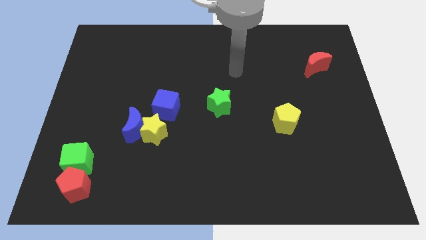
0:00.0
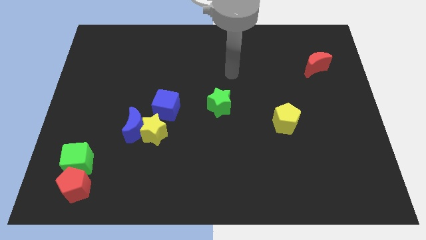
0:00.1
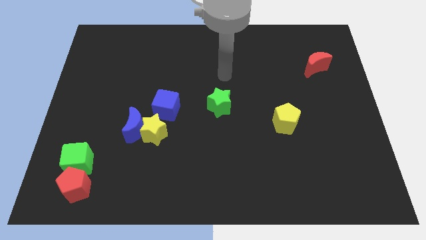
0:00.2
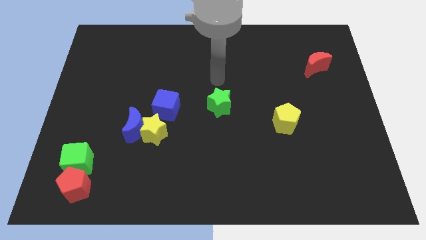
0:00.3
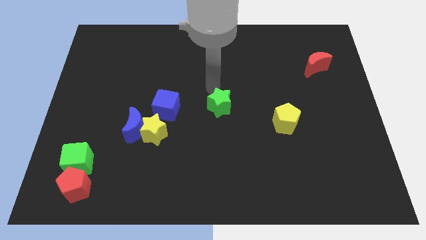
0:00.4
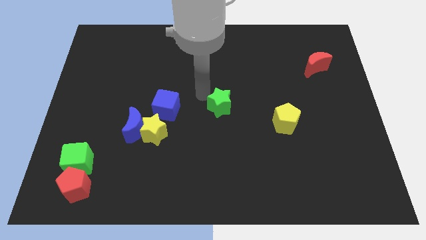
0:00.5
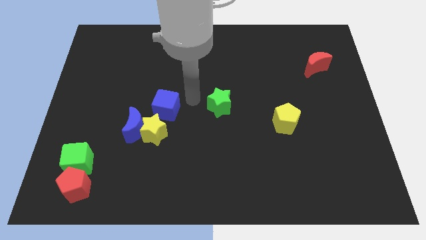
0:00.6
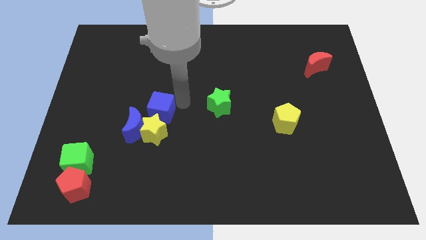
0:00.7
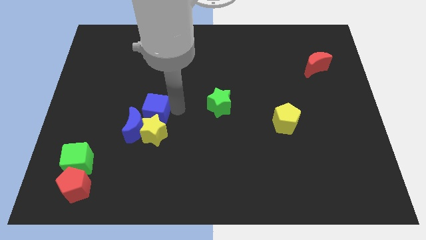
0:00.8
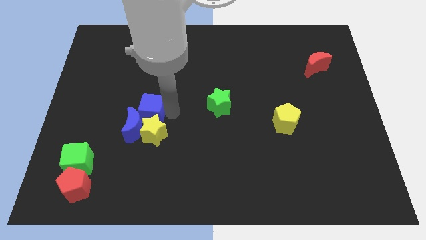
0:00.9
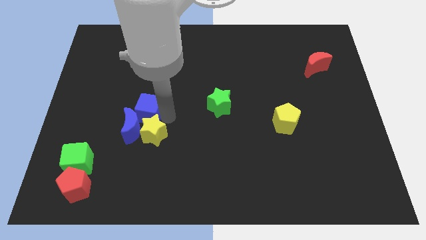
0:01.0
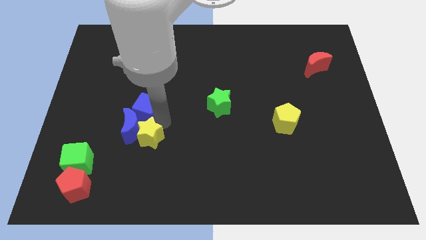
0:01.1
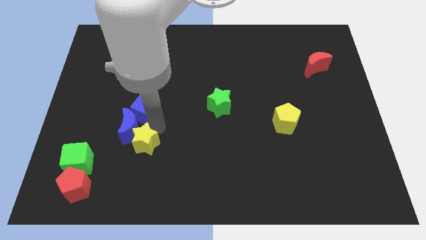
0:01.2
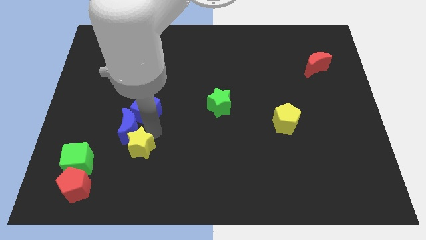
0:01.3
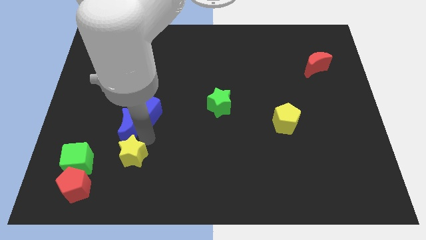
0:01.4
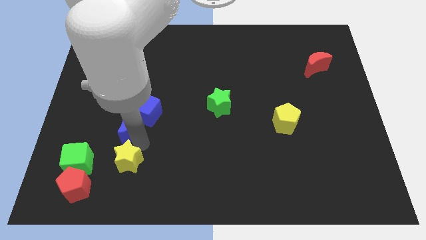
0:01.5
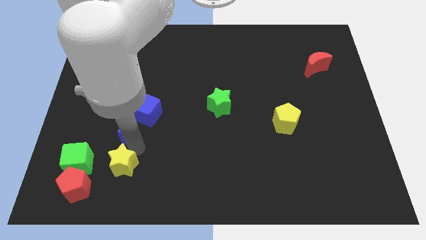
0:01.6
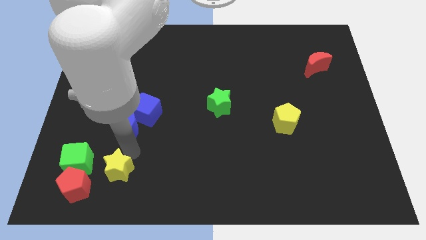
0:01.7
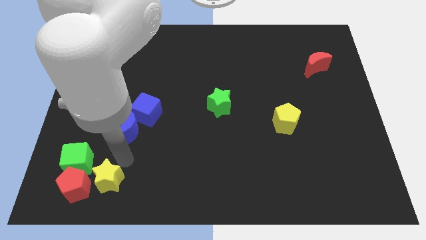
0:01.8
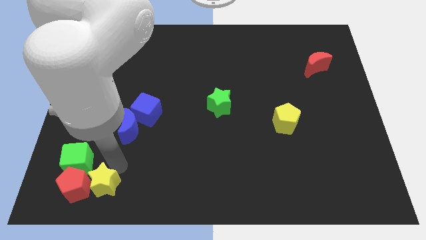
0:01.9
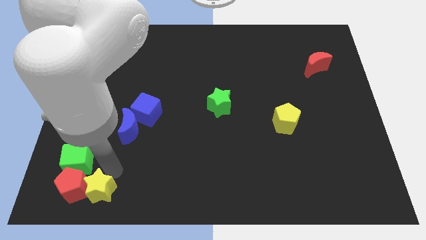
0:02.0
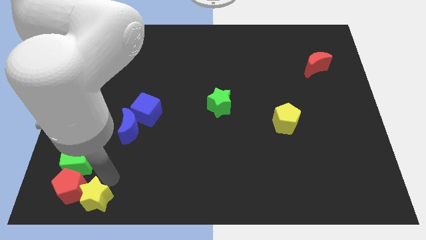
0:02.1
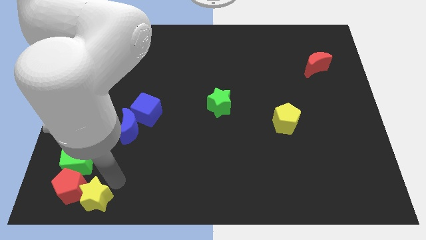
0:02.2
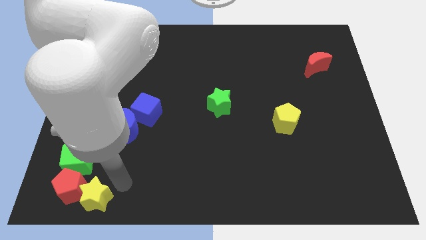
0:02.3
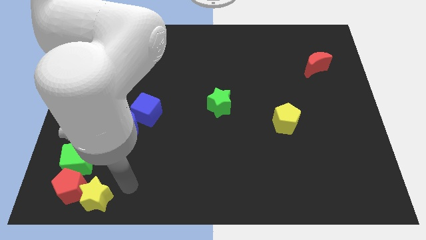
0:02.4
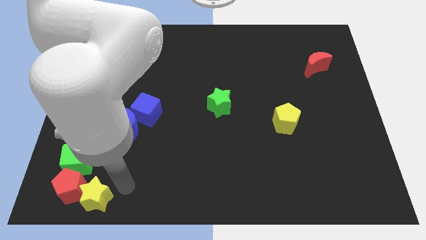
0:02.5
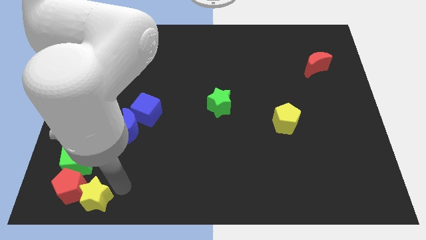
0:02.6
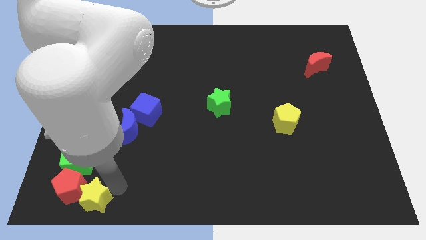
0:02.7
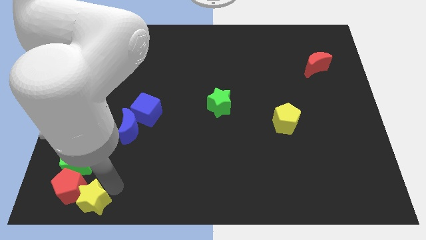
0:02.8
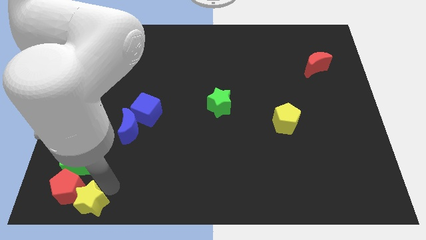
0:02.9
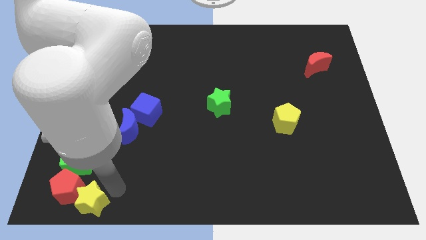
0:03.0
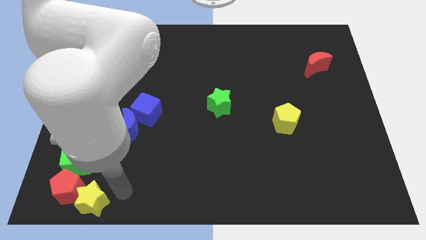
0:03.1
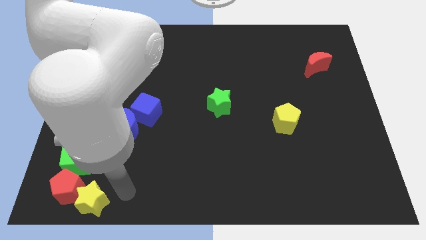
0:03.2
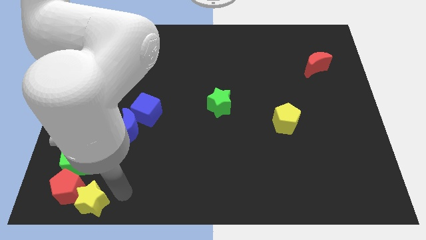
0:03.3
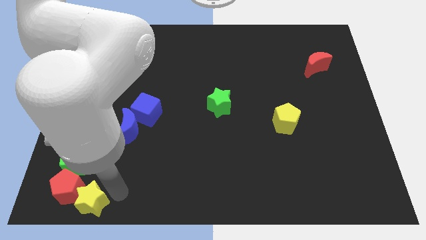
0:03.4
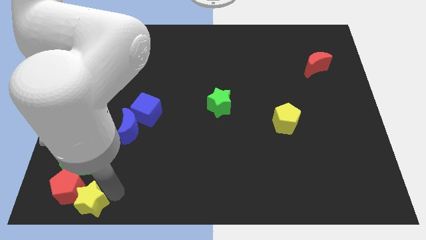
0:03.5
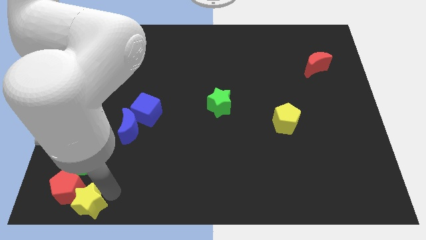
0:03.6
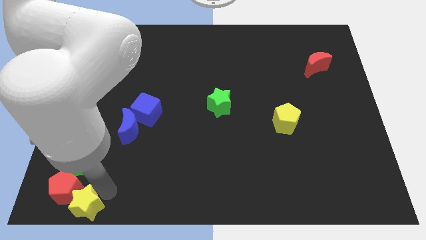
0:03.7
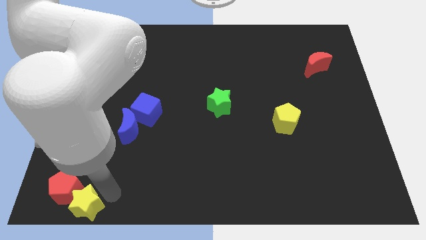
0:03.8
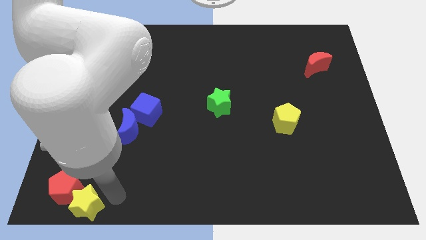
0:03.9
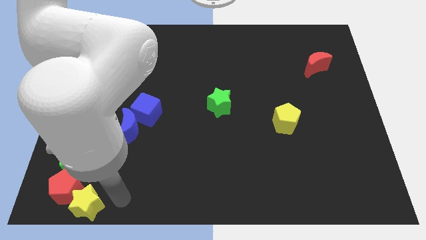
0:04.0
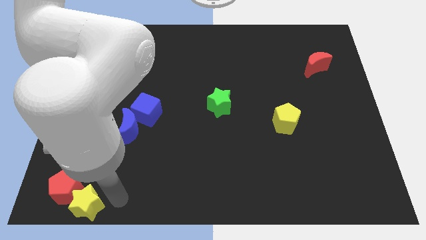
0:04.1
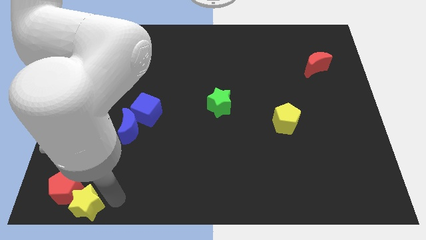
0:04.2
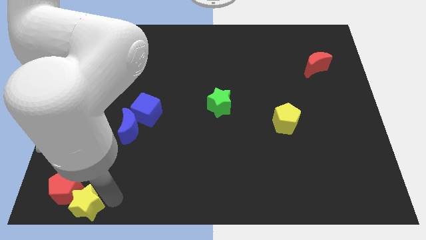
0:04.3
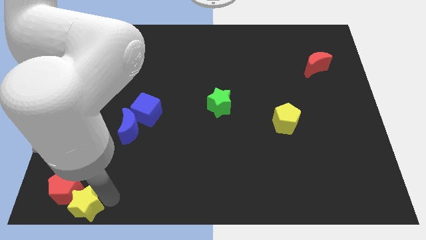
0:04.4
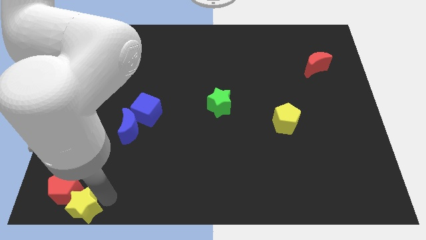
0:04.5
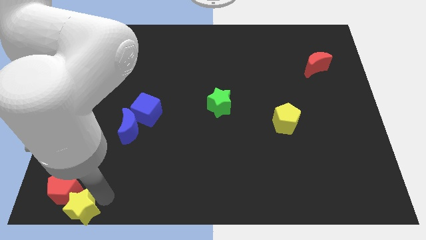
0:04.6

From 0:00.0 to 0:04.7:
put the yellow star to the bottom left of the board

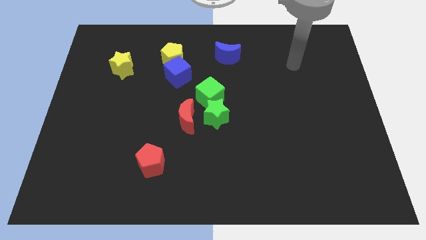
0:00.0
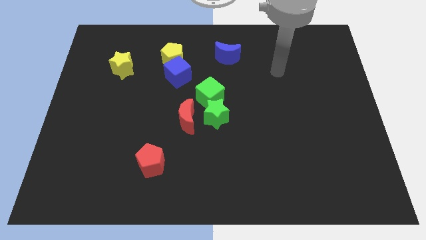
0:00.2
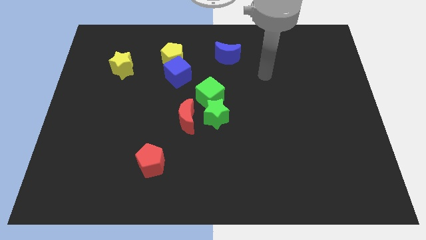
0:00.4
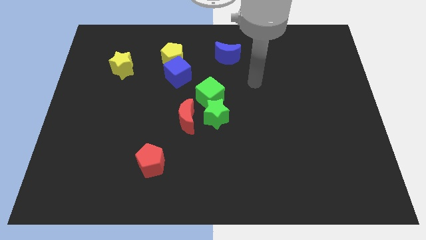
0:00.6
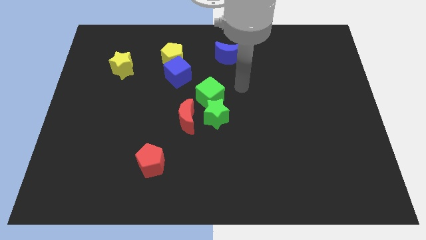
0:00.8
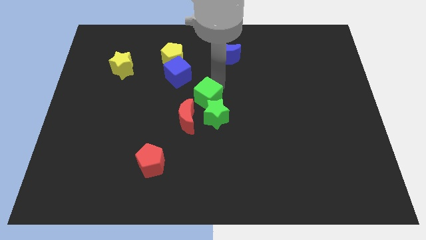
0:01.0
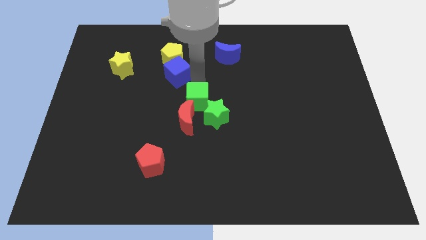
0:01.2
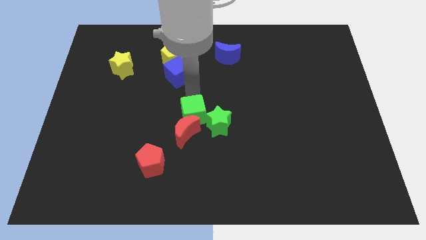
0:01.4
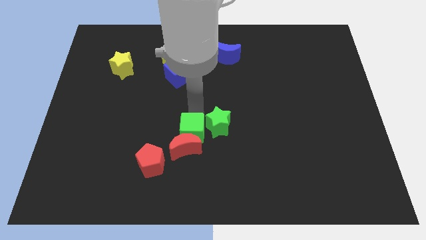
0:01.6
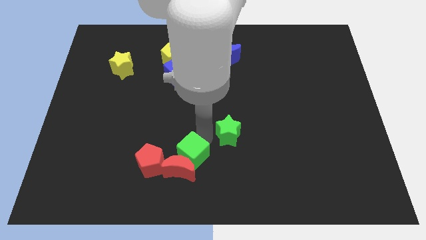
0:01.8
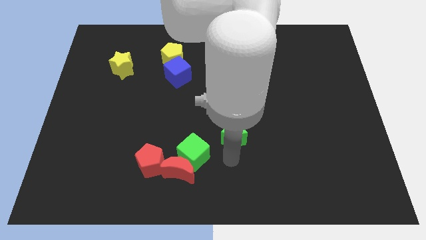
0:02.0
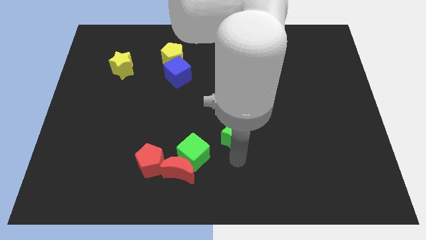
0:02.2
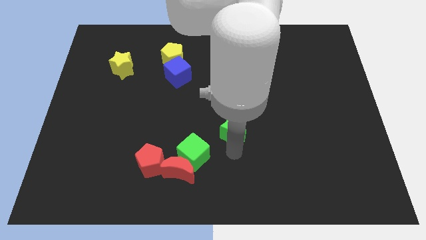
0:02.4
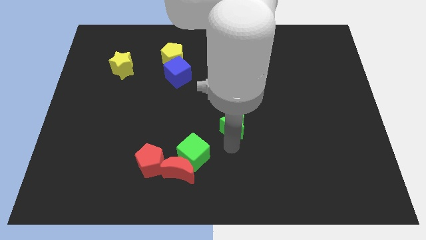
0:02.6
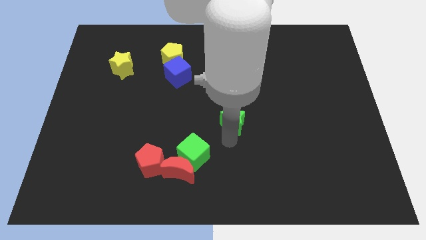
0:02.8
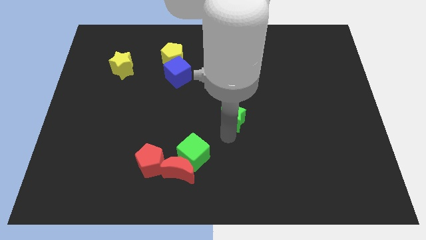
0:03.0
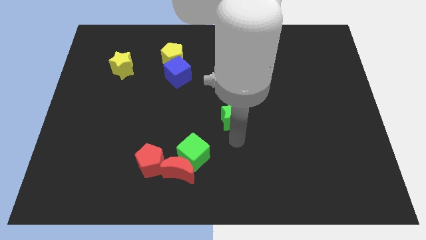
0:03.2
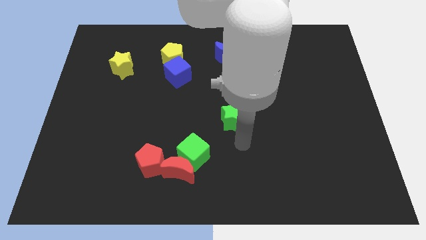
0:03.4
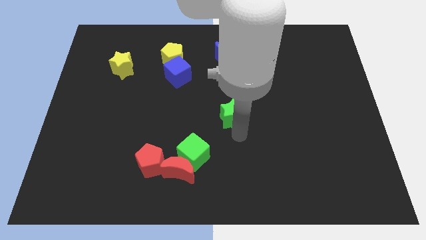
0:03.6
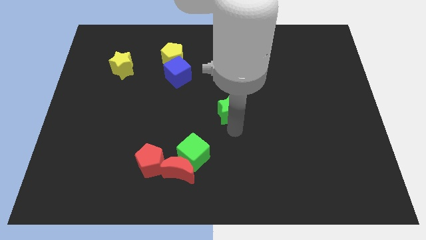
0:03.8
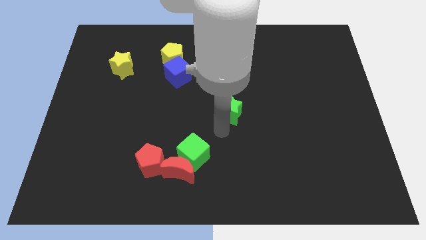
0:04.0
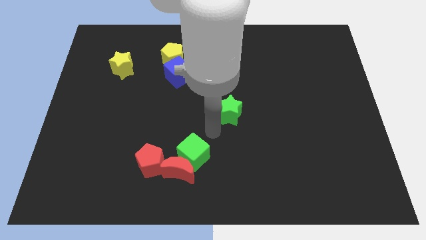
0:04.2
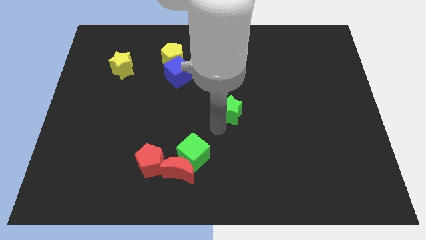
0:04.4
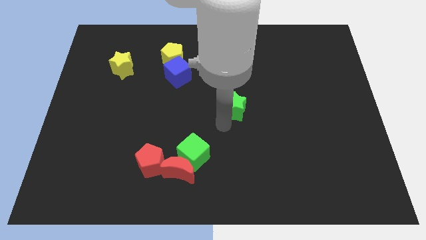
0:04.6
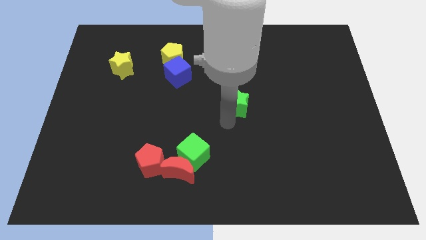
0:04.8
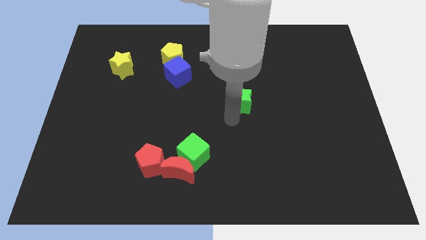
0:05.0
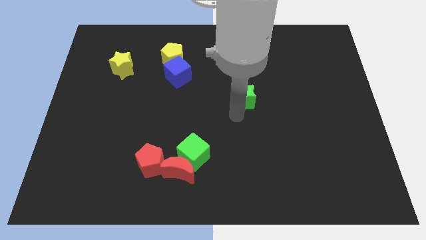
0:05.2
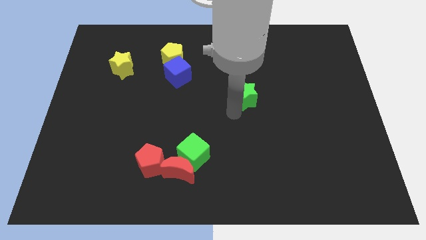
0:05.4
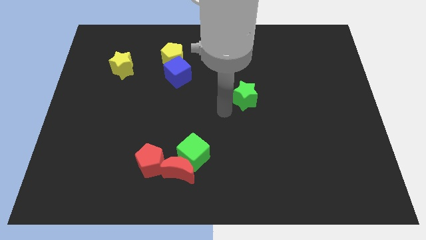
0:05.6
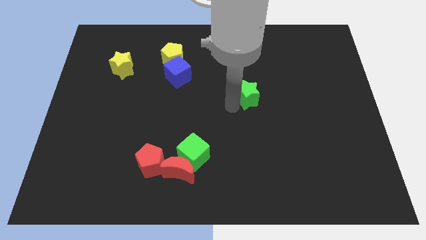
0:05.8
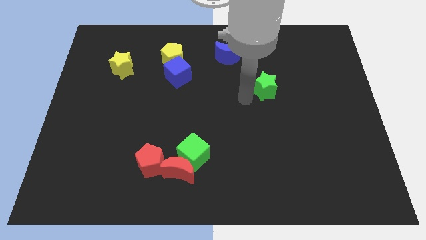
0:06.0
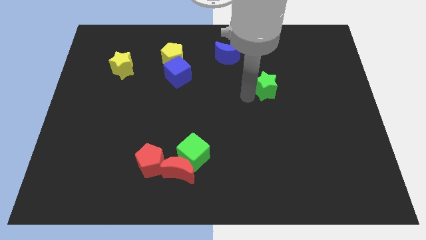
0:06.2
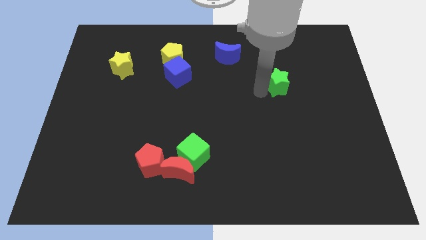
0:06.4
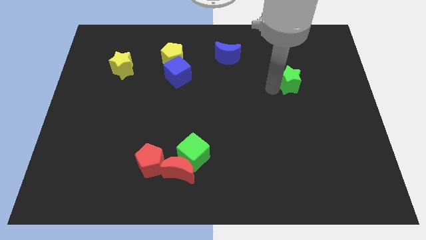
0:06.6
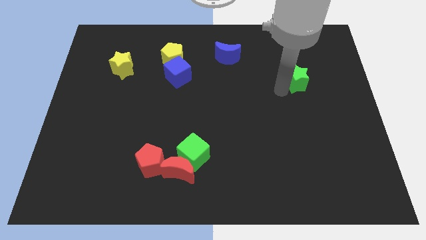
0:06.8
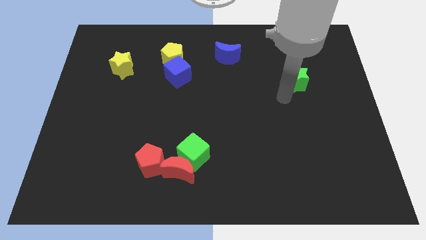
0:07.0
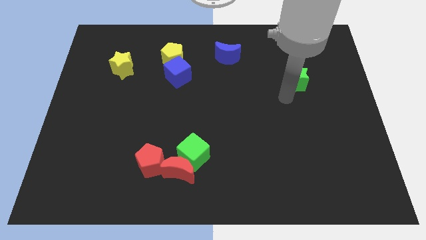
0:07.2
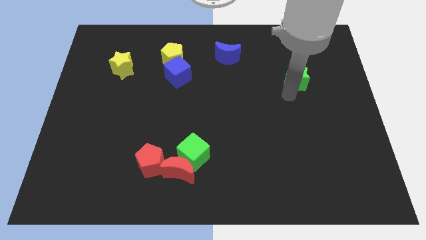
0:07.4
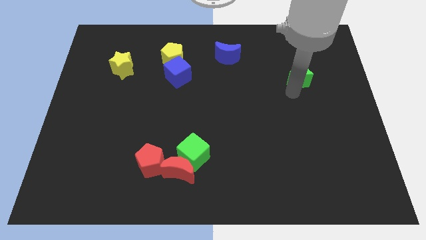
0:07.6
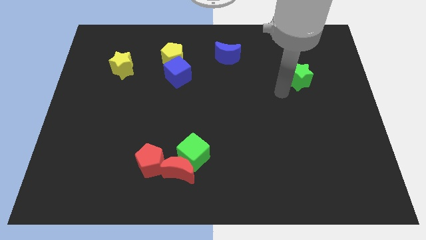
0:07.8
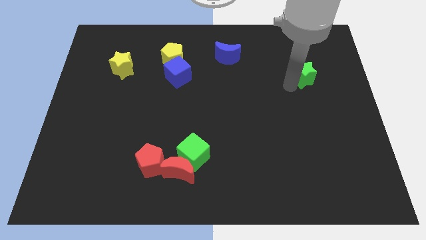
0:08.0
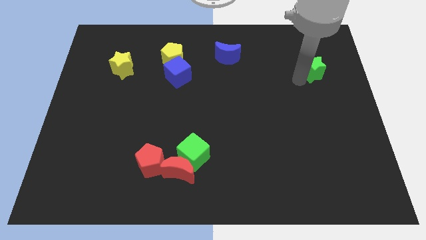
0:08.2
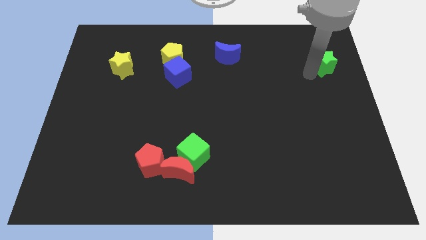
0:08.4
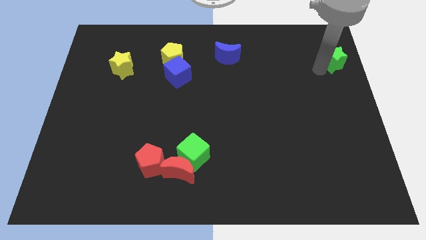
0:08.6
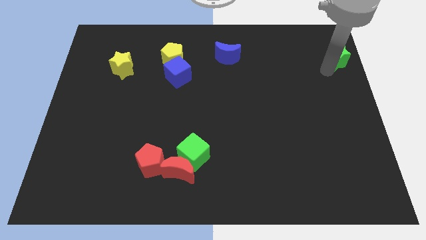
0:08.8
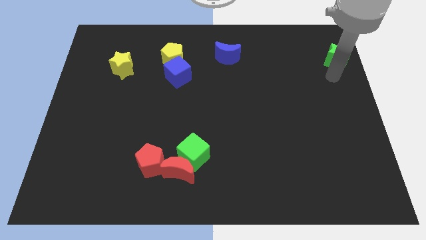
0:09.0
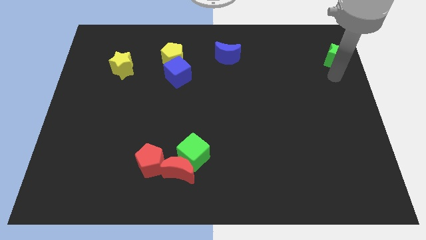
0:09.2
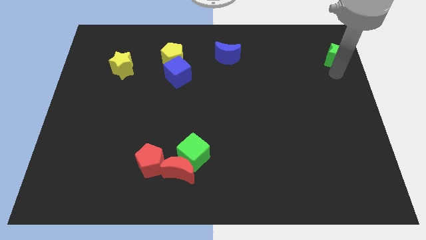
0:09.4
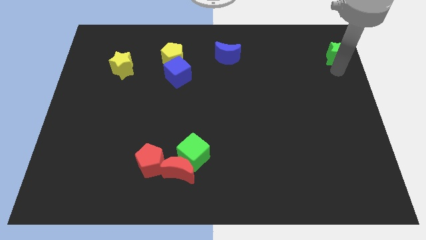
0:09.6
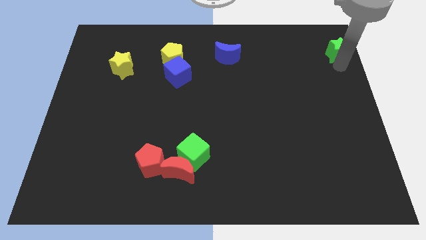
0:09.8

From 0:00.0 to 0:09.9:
put the green star to the upper right corner
